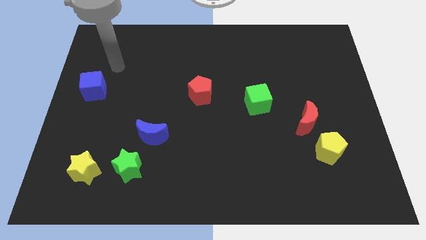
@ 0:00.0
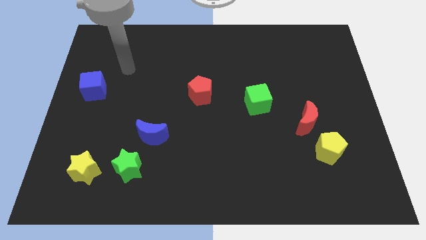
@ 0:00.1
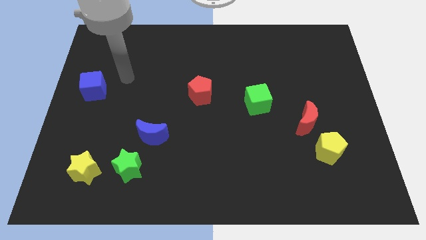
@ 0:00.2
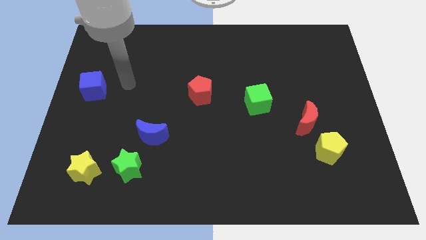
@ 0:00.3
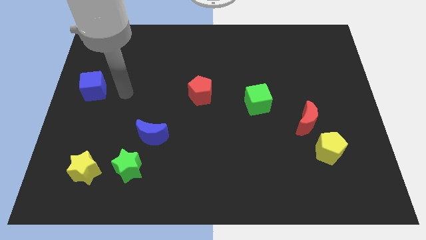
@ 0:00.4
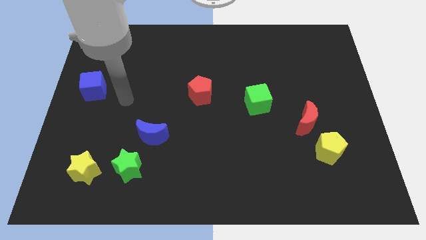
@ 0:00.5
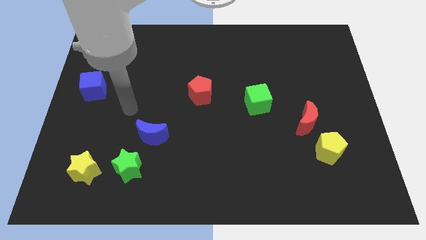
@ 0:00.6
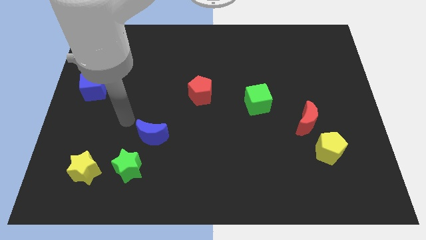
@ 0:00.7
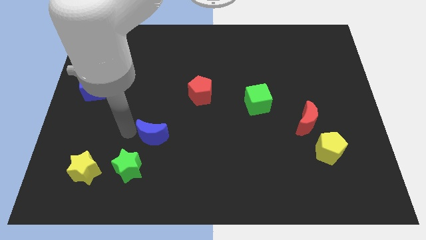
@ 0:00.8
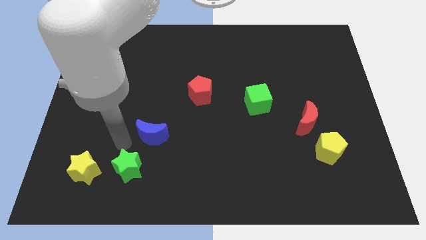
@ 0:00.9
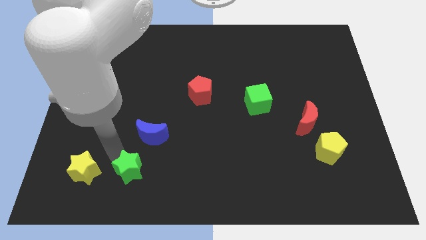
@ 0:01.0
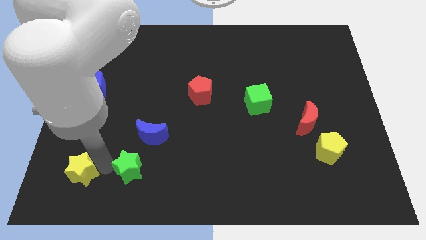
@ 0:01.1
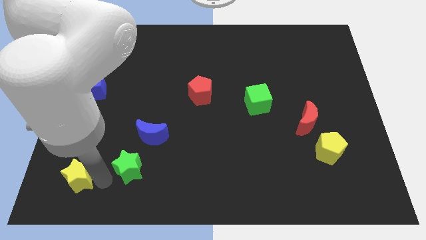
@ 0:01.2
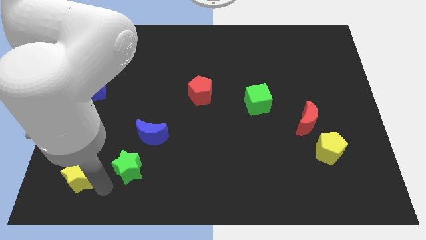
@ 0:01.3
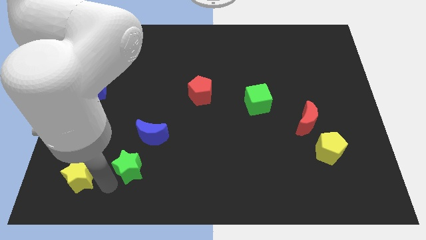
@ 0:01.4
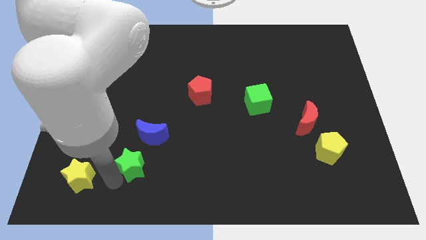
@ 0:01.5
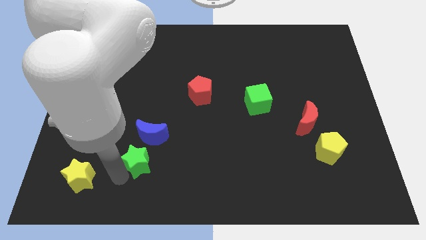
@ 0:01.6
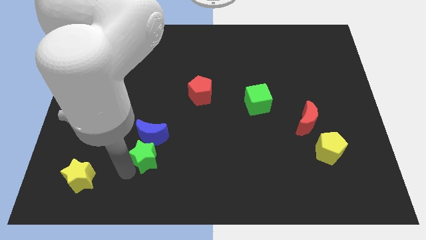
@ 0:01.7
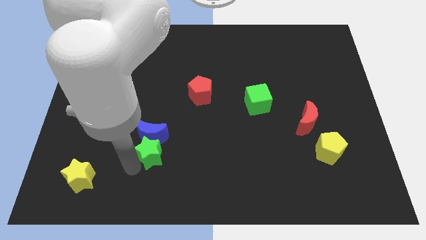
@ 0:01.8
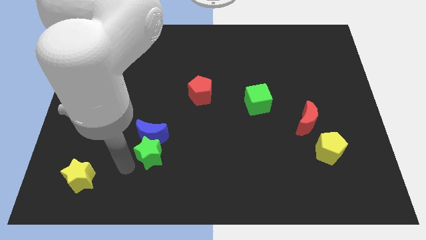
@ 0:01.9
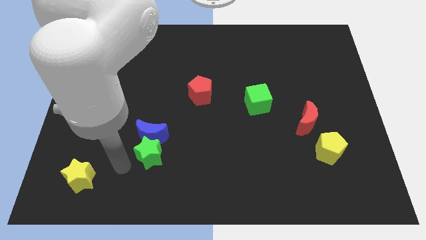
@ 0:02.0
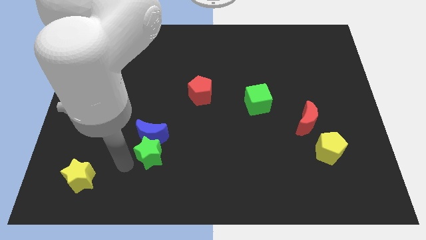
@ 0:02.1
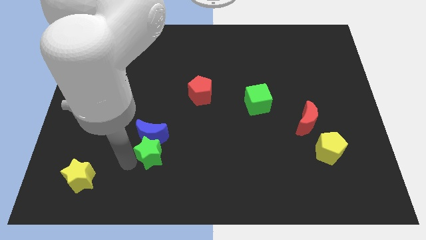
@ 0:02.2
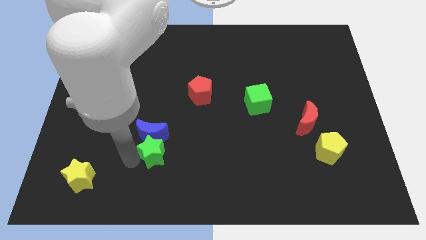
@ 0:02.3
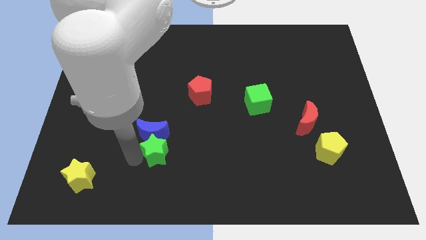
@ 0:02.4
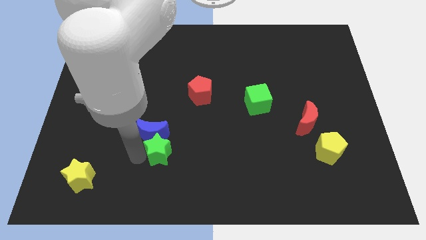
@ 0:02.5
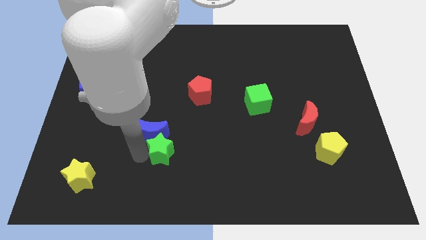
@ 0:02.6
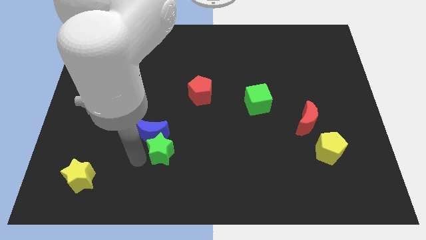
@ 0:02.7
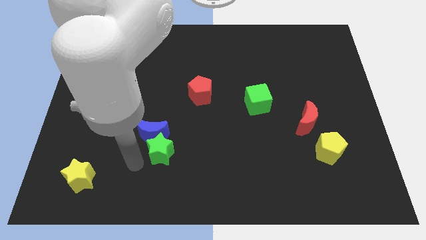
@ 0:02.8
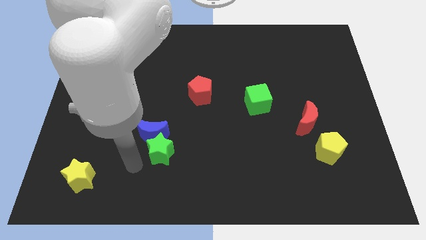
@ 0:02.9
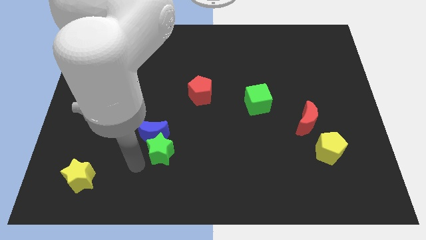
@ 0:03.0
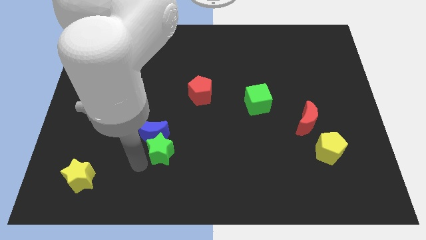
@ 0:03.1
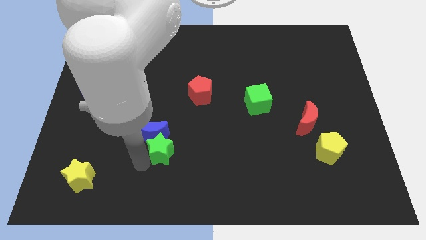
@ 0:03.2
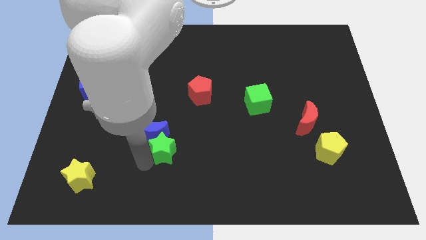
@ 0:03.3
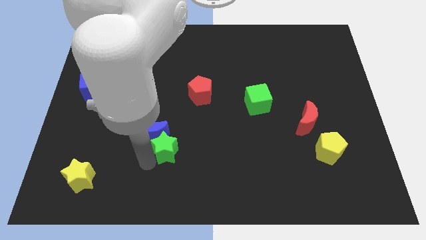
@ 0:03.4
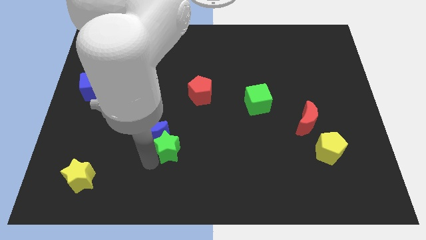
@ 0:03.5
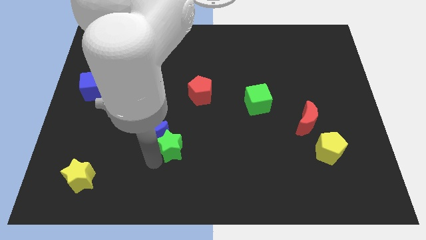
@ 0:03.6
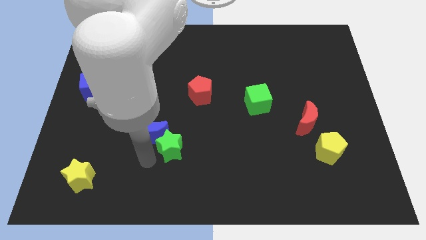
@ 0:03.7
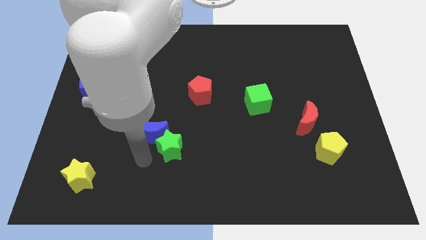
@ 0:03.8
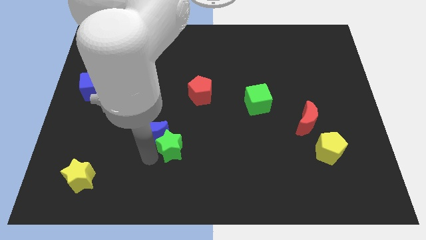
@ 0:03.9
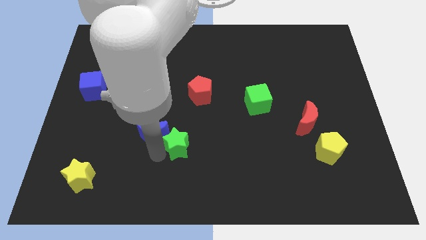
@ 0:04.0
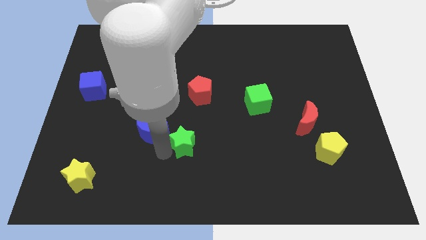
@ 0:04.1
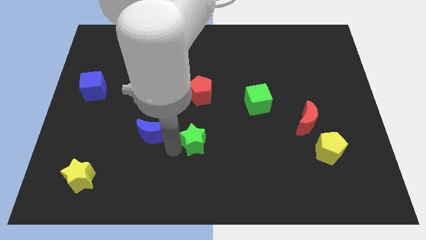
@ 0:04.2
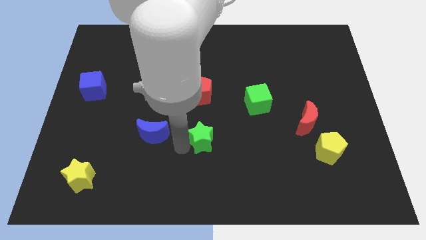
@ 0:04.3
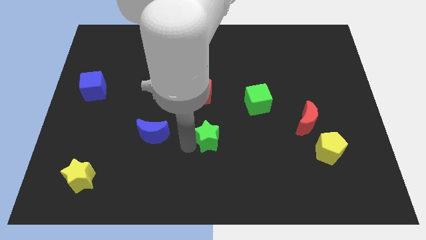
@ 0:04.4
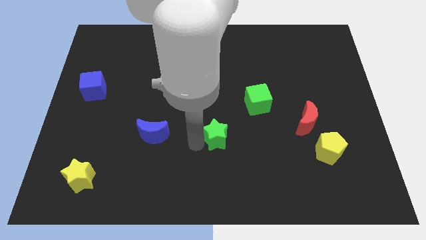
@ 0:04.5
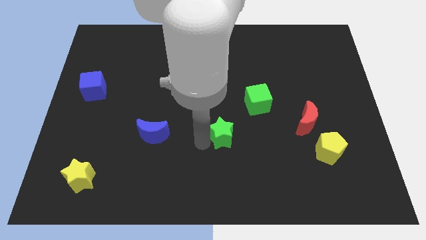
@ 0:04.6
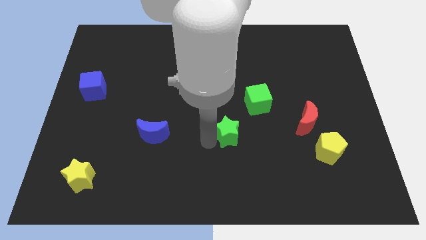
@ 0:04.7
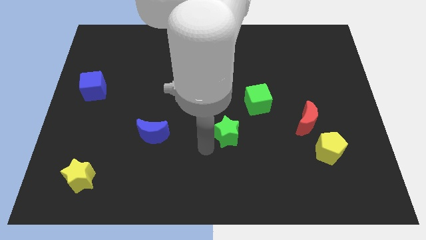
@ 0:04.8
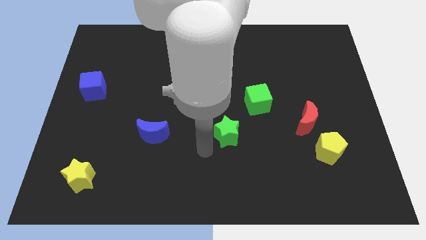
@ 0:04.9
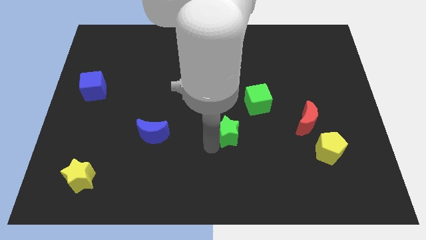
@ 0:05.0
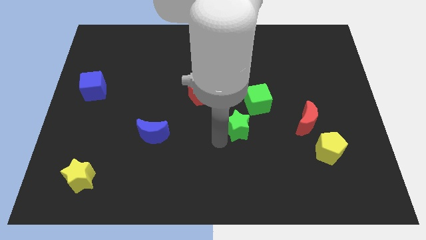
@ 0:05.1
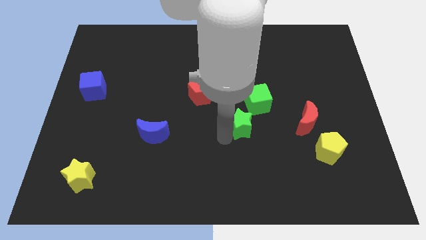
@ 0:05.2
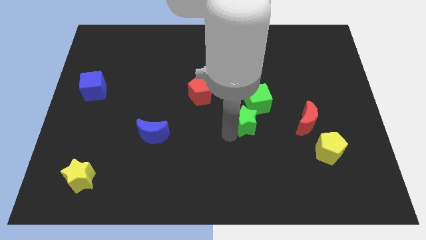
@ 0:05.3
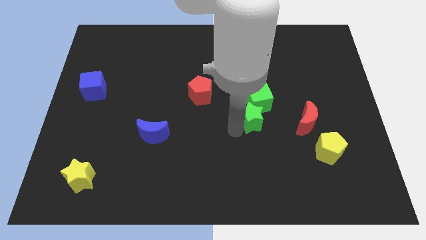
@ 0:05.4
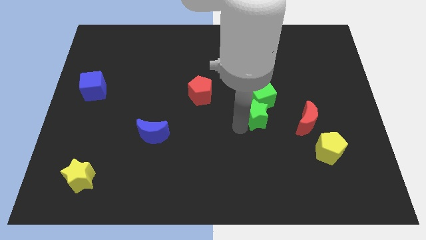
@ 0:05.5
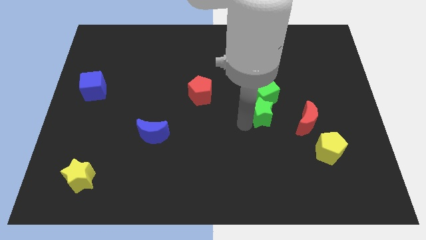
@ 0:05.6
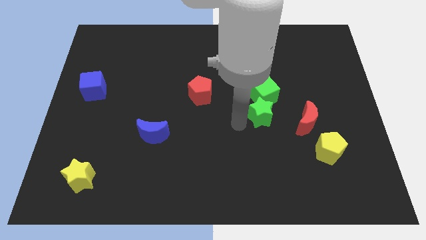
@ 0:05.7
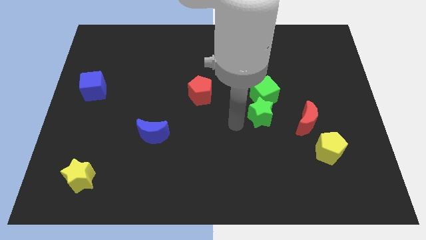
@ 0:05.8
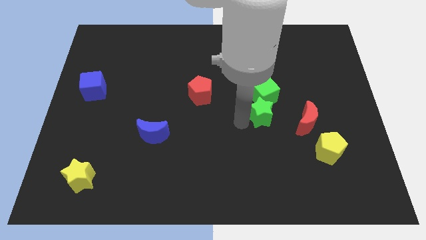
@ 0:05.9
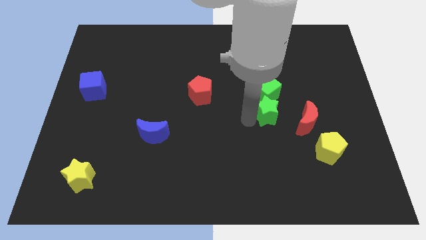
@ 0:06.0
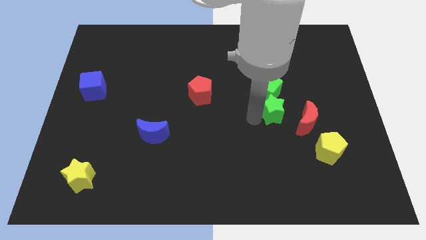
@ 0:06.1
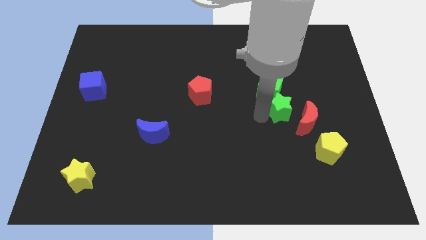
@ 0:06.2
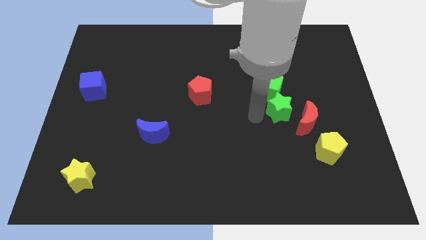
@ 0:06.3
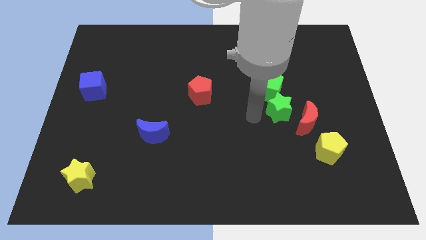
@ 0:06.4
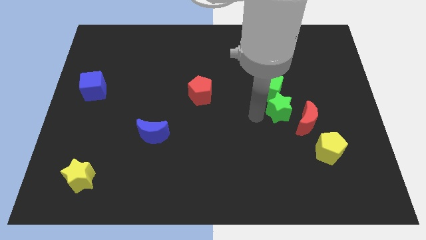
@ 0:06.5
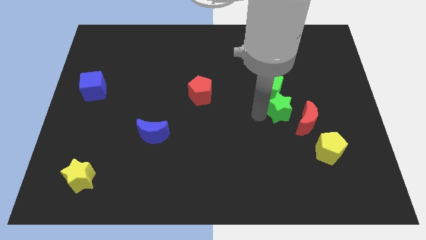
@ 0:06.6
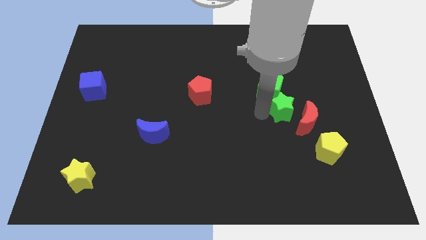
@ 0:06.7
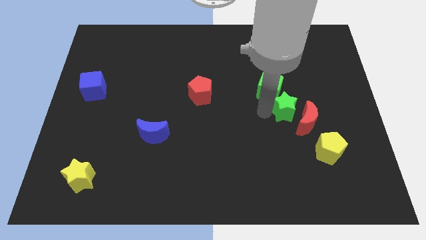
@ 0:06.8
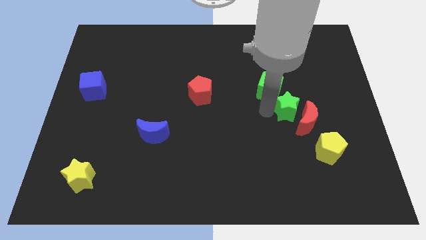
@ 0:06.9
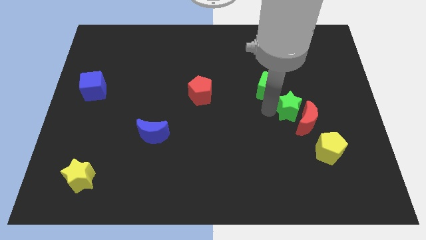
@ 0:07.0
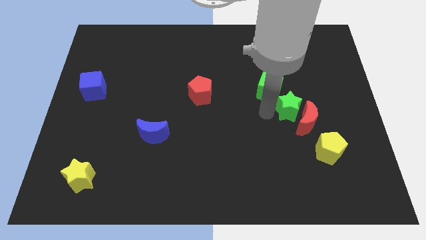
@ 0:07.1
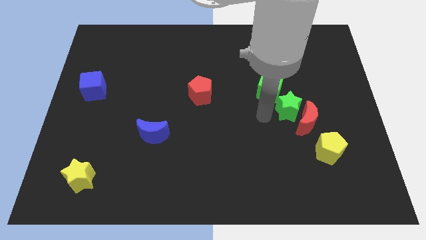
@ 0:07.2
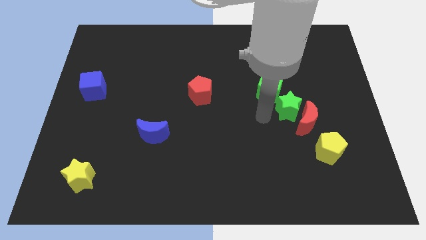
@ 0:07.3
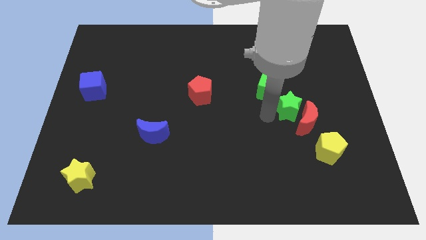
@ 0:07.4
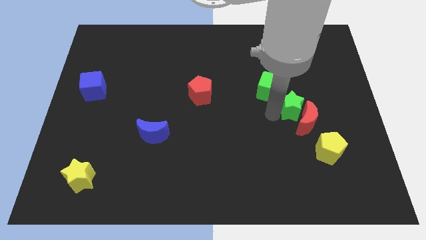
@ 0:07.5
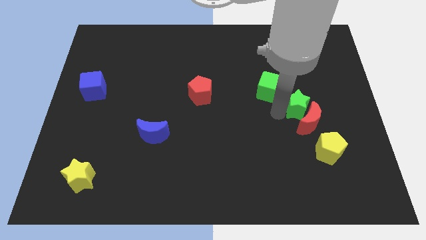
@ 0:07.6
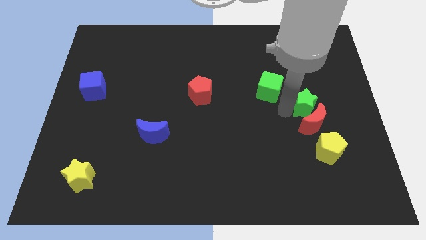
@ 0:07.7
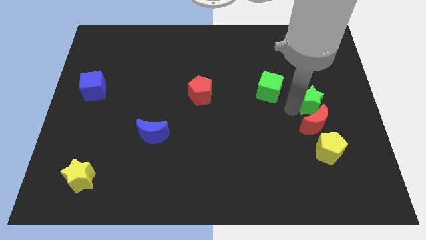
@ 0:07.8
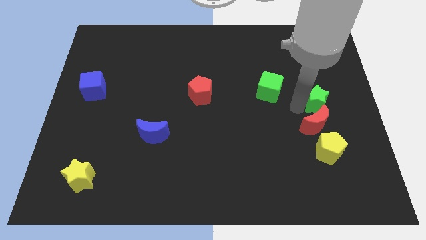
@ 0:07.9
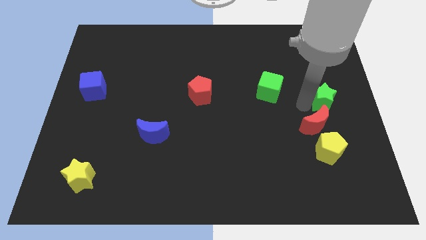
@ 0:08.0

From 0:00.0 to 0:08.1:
put the green star to the center right
